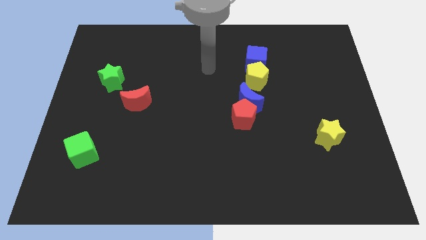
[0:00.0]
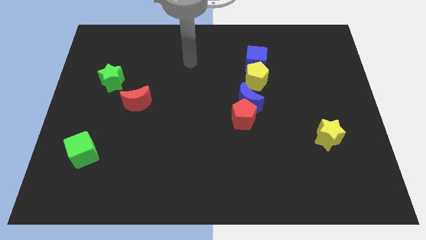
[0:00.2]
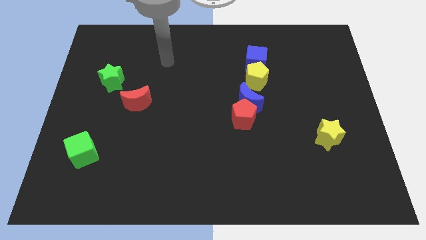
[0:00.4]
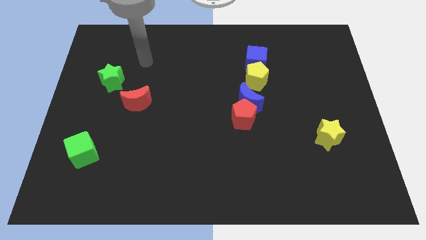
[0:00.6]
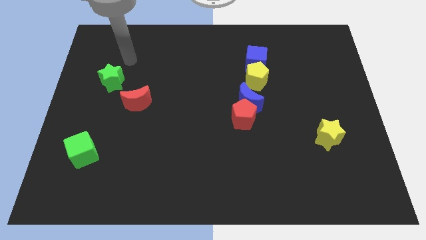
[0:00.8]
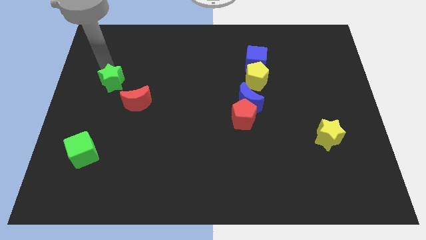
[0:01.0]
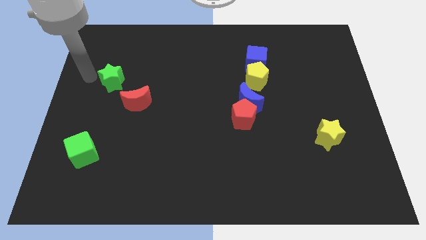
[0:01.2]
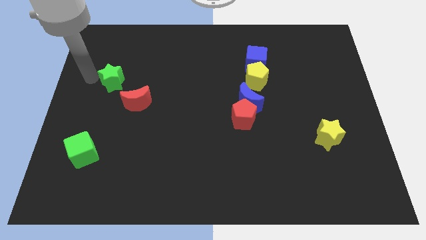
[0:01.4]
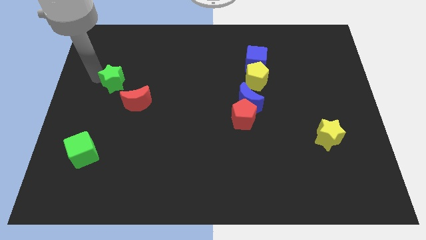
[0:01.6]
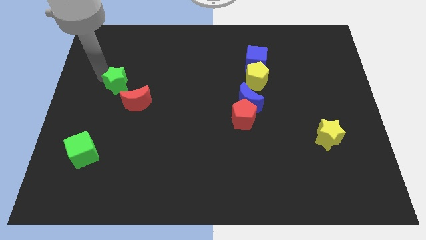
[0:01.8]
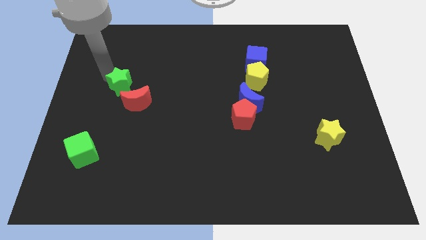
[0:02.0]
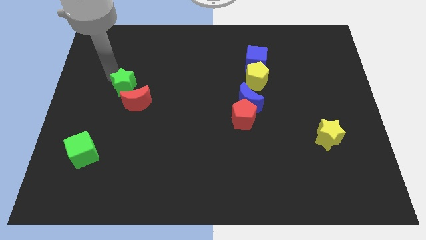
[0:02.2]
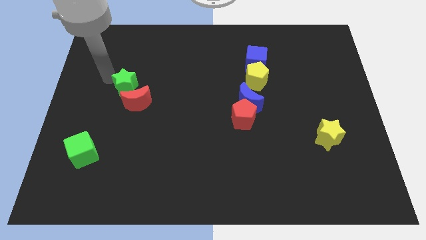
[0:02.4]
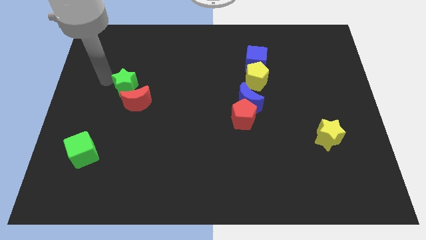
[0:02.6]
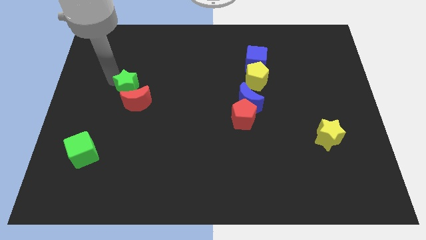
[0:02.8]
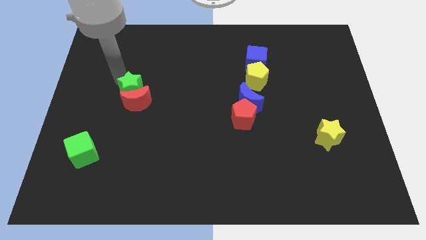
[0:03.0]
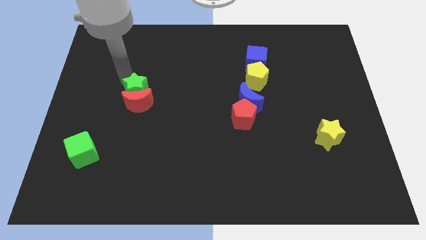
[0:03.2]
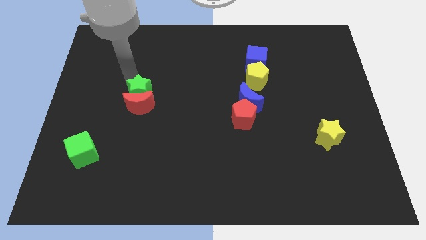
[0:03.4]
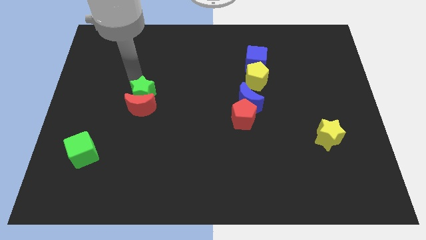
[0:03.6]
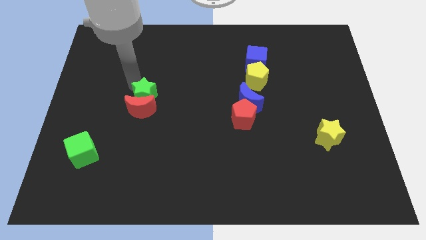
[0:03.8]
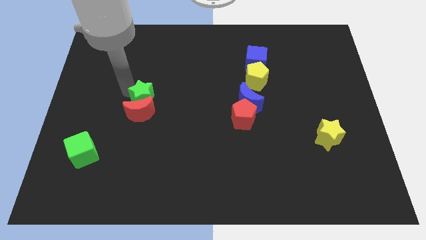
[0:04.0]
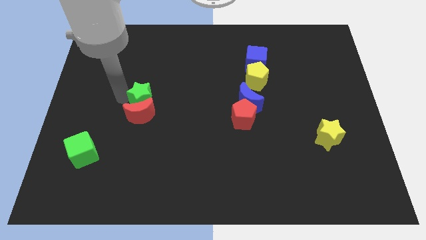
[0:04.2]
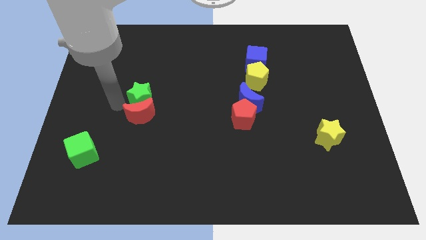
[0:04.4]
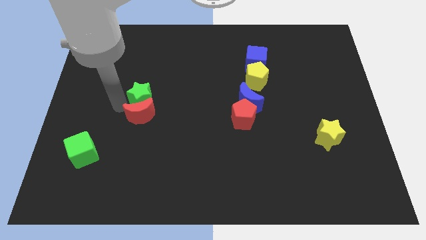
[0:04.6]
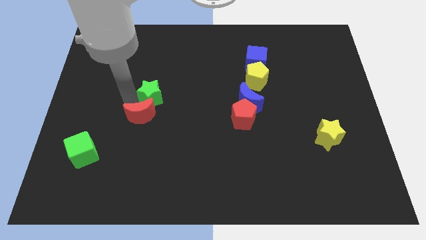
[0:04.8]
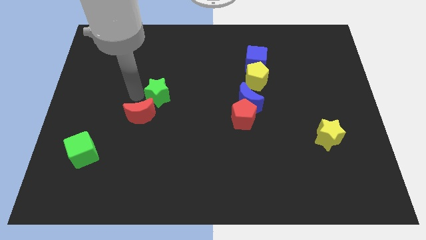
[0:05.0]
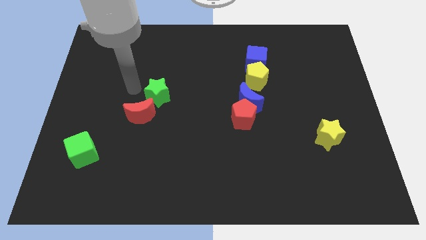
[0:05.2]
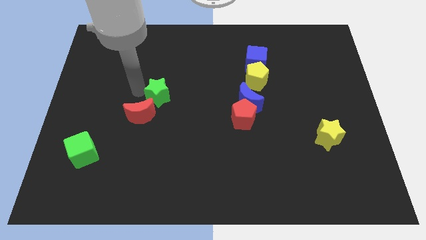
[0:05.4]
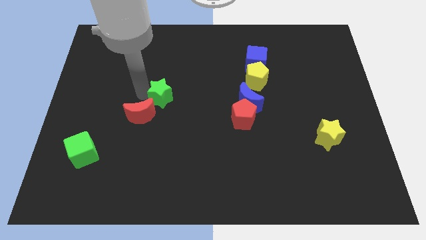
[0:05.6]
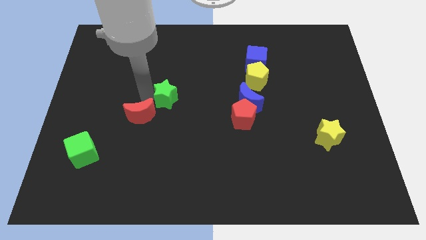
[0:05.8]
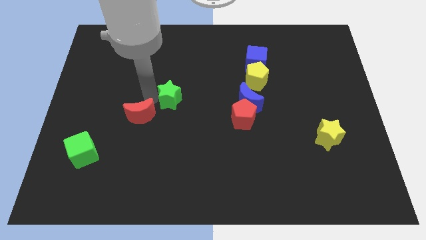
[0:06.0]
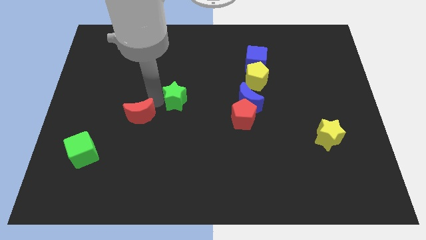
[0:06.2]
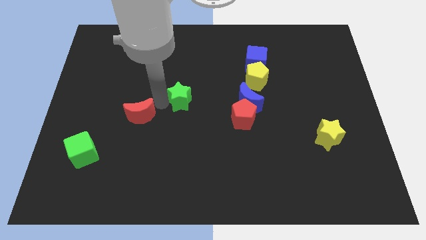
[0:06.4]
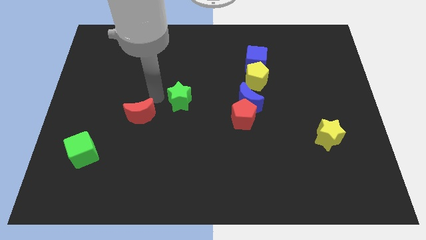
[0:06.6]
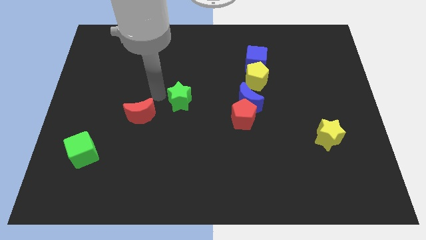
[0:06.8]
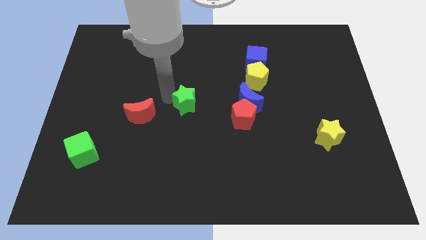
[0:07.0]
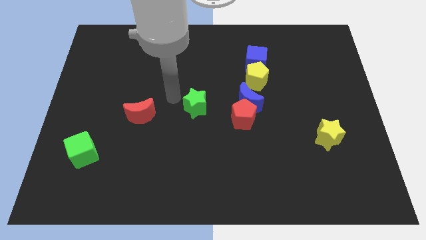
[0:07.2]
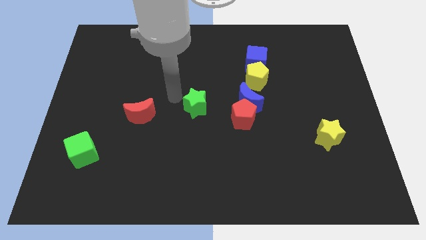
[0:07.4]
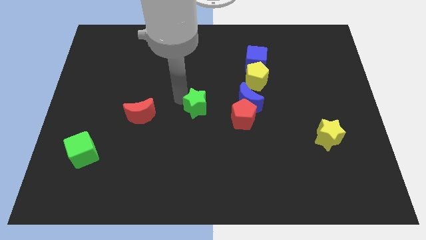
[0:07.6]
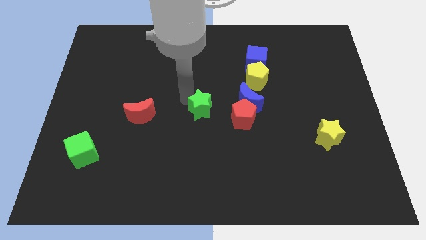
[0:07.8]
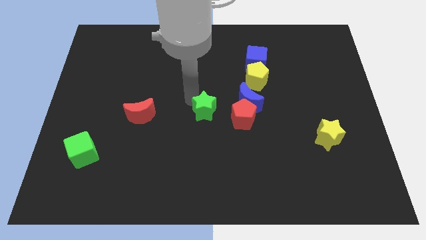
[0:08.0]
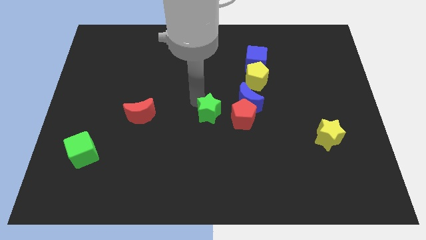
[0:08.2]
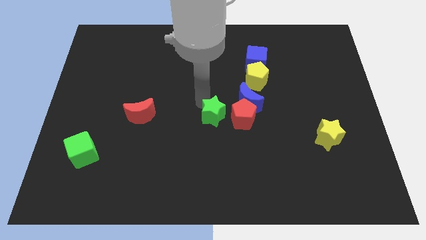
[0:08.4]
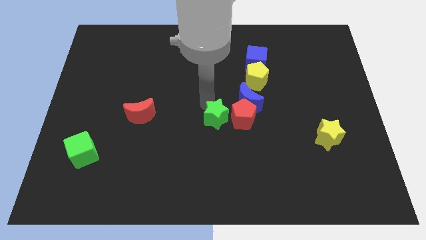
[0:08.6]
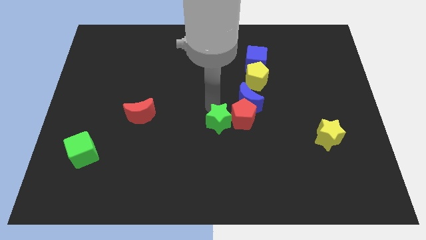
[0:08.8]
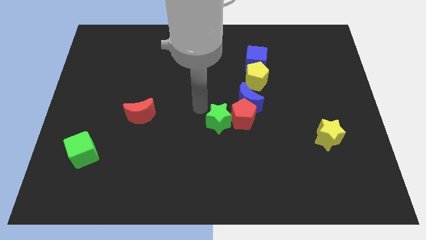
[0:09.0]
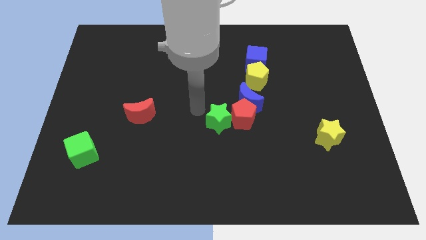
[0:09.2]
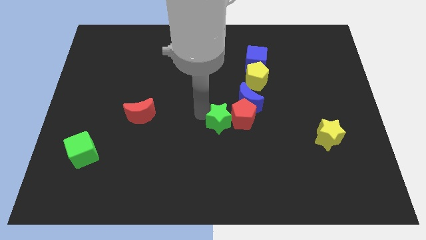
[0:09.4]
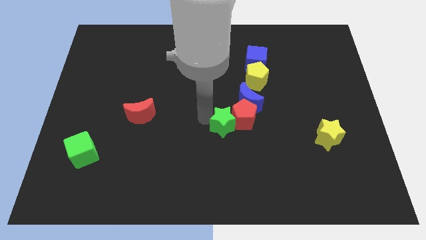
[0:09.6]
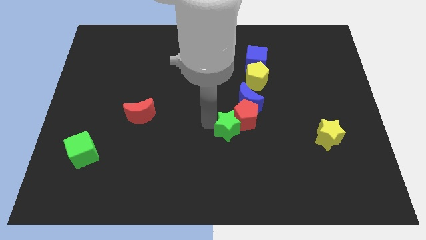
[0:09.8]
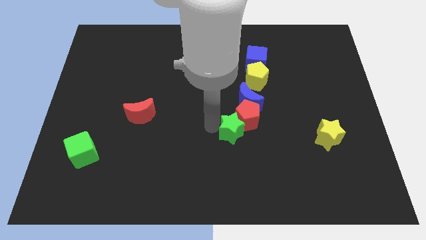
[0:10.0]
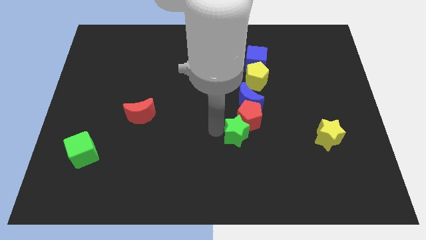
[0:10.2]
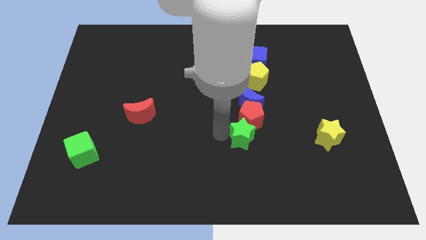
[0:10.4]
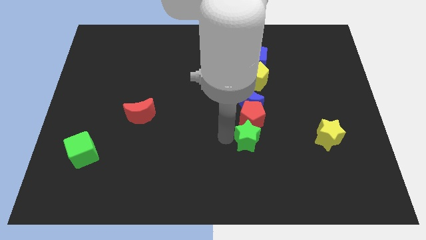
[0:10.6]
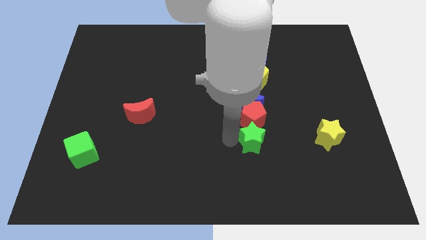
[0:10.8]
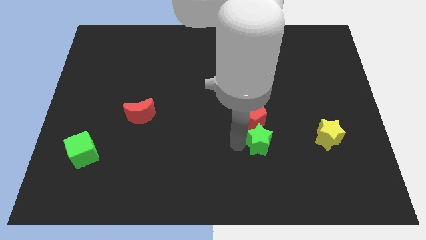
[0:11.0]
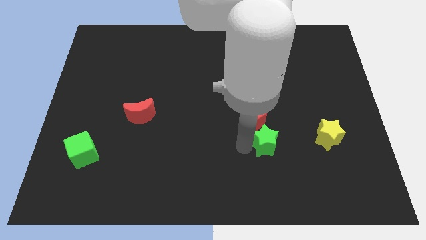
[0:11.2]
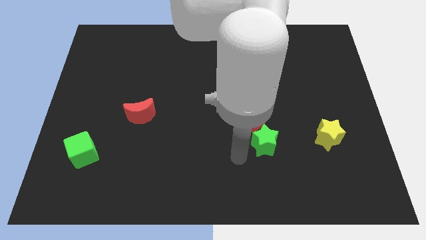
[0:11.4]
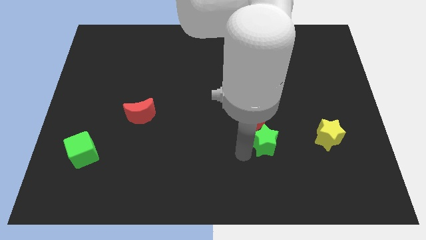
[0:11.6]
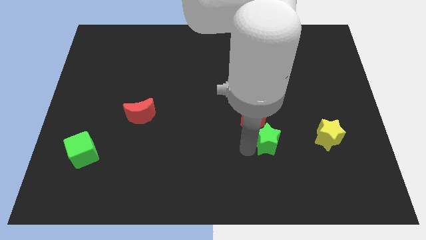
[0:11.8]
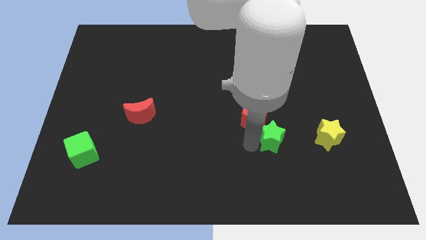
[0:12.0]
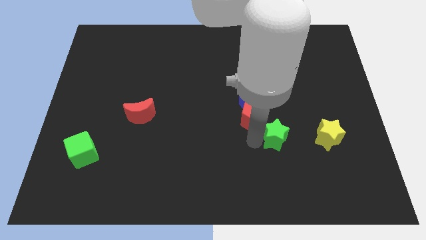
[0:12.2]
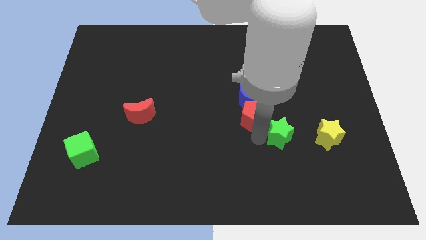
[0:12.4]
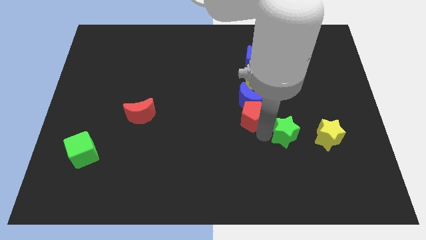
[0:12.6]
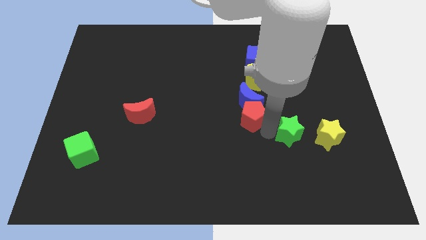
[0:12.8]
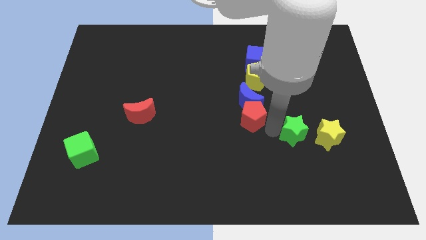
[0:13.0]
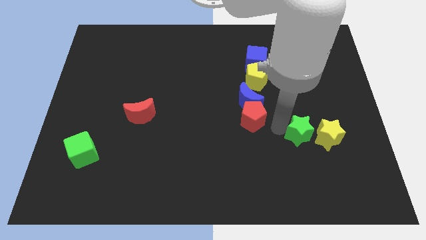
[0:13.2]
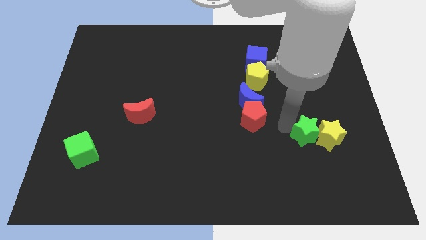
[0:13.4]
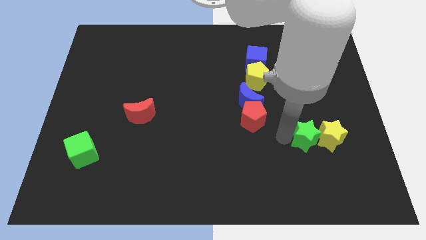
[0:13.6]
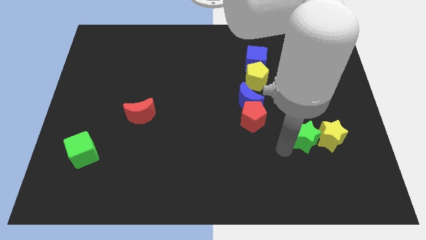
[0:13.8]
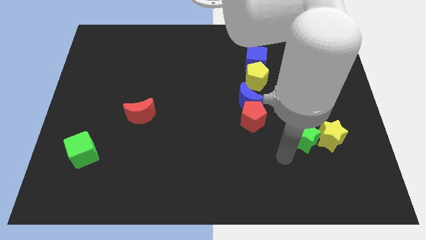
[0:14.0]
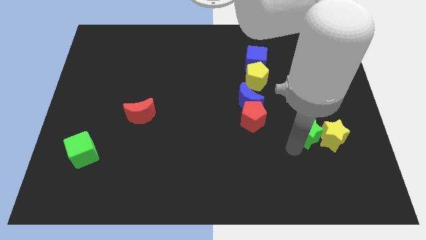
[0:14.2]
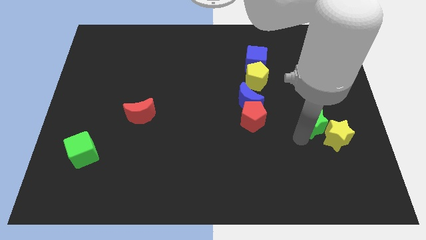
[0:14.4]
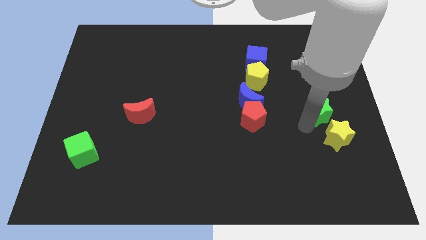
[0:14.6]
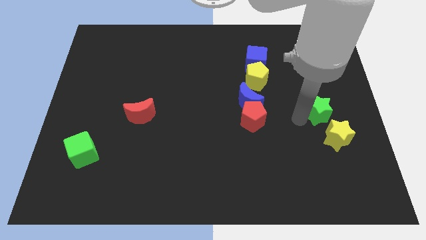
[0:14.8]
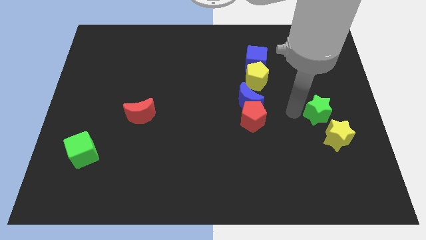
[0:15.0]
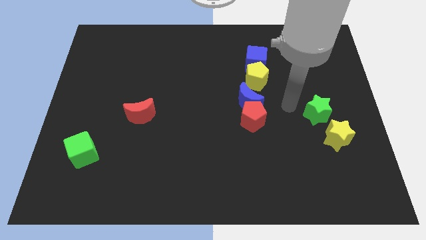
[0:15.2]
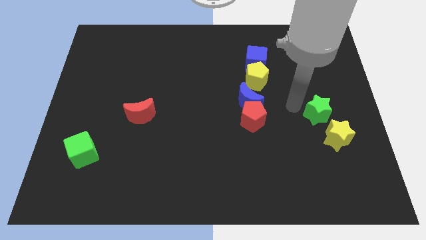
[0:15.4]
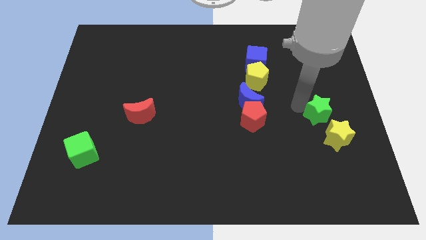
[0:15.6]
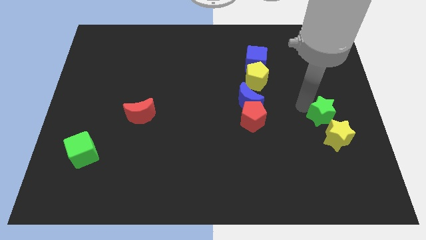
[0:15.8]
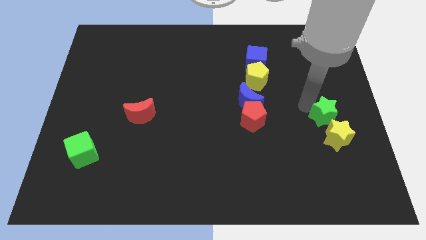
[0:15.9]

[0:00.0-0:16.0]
slide the green star to the center right
